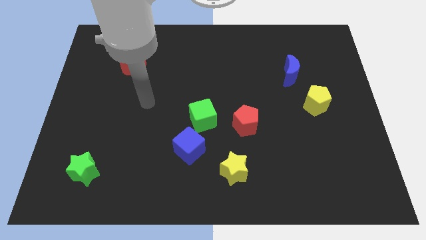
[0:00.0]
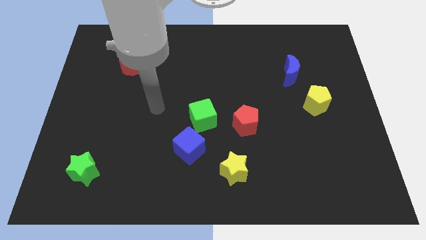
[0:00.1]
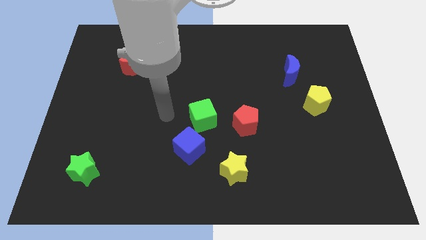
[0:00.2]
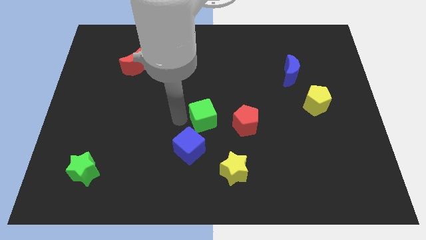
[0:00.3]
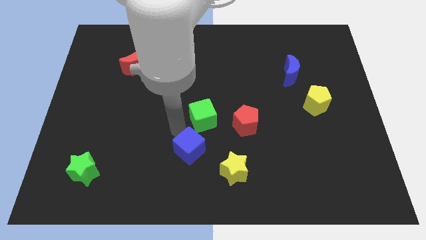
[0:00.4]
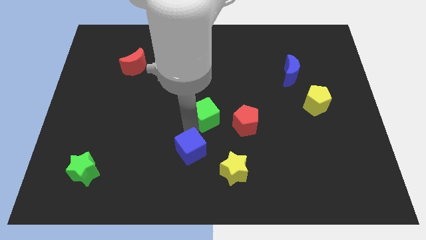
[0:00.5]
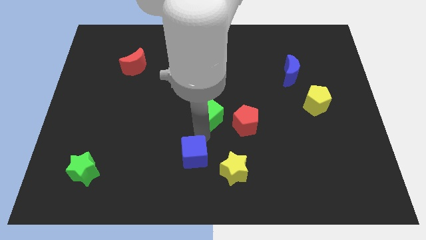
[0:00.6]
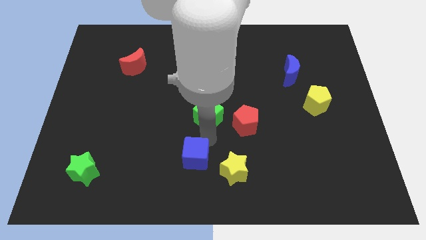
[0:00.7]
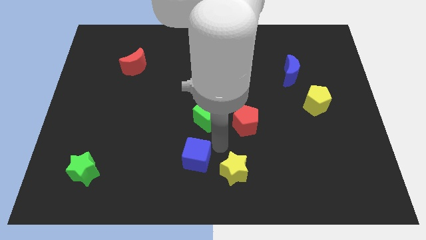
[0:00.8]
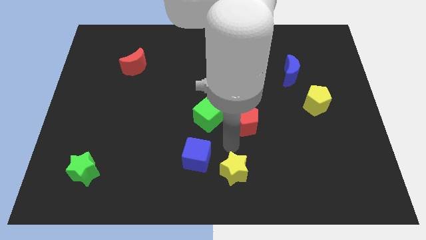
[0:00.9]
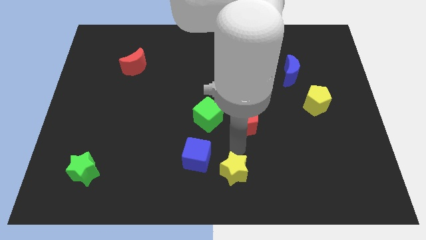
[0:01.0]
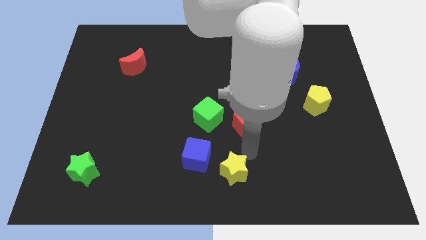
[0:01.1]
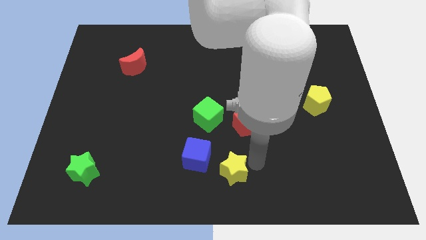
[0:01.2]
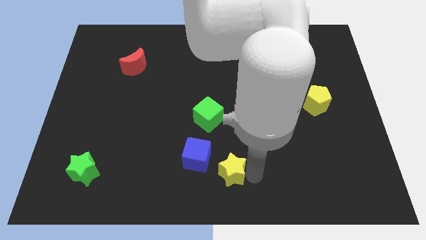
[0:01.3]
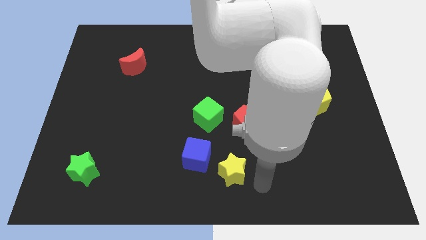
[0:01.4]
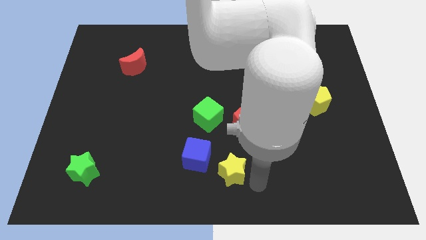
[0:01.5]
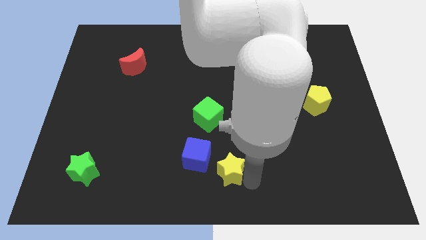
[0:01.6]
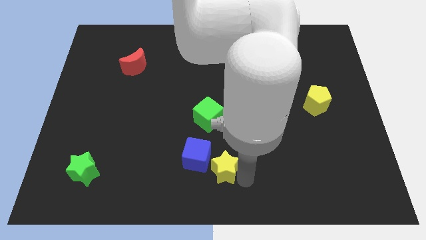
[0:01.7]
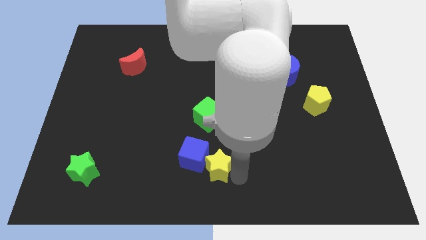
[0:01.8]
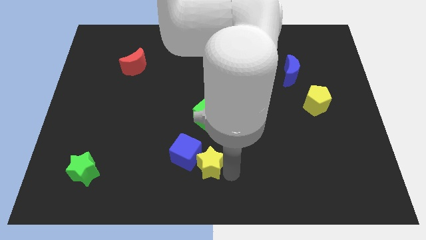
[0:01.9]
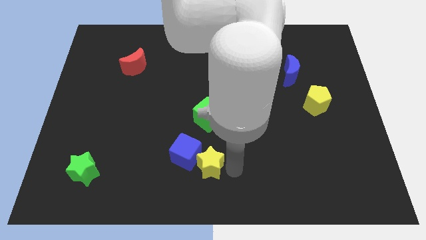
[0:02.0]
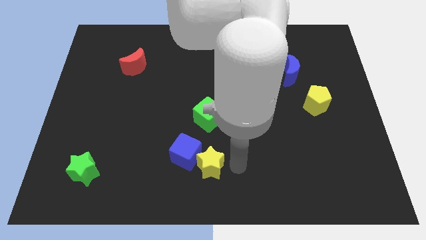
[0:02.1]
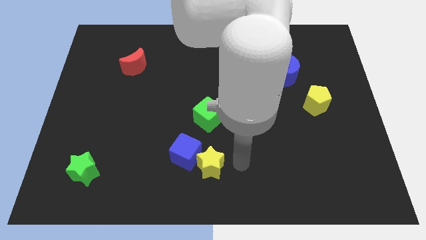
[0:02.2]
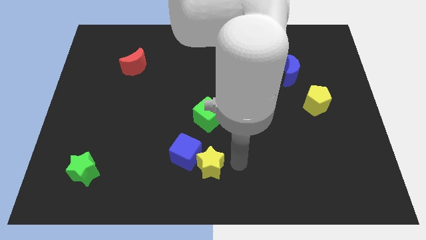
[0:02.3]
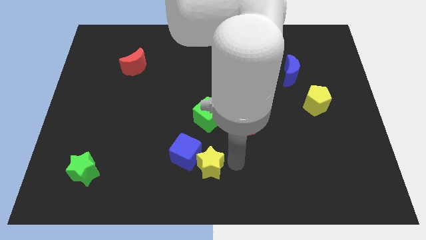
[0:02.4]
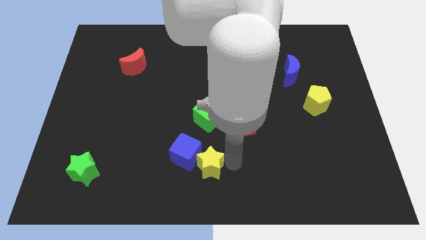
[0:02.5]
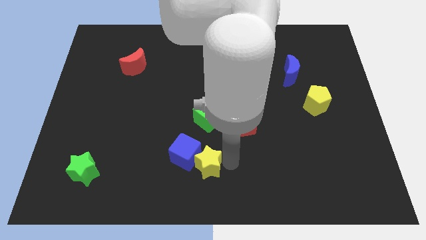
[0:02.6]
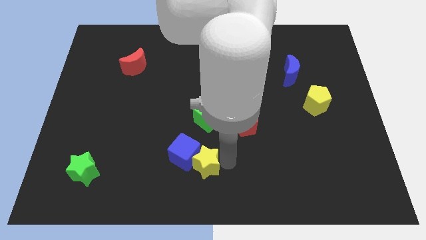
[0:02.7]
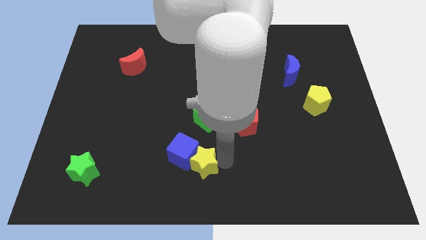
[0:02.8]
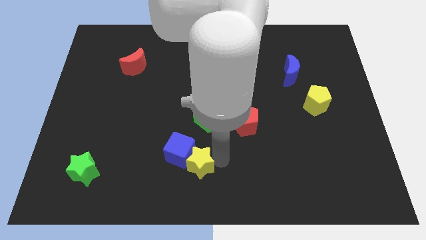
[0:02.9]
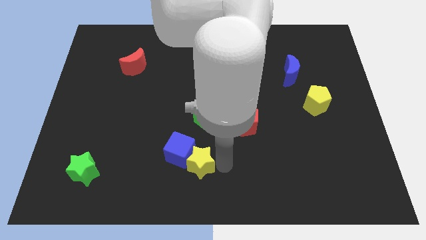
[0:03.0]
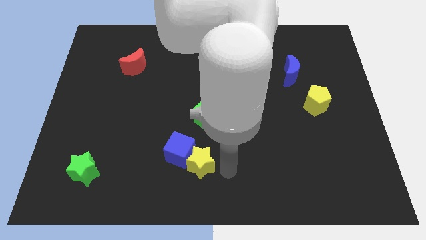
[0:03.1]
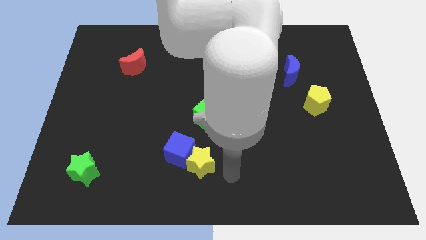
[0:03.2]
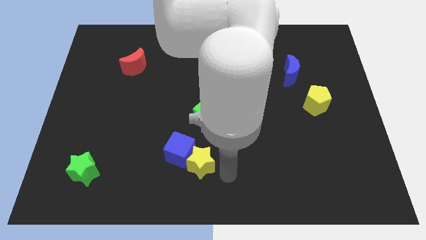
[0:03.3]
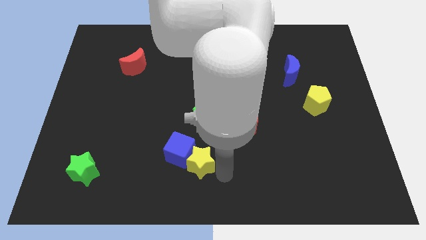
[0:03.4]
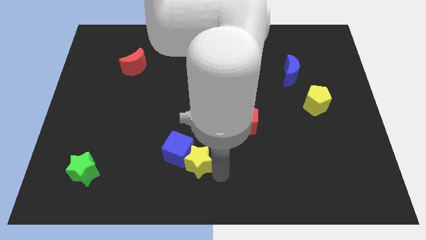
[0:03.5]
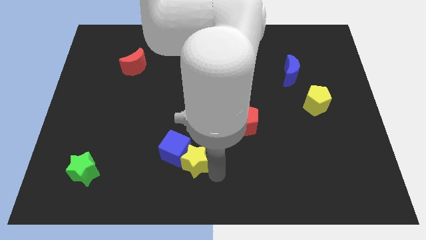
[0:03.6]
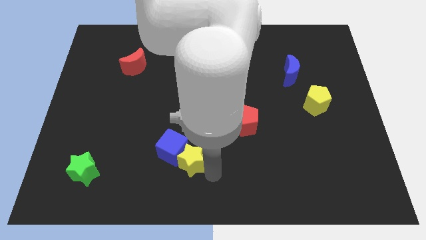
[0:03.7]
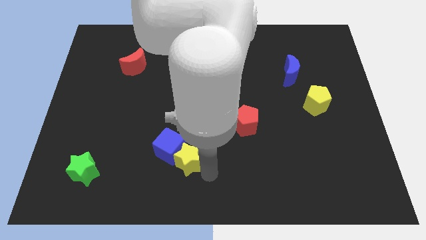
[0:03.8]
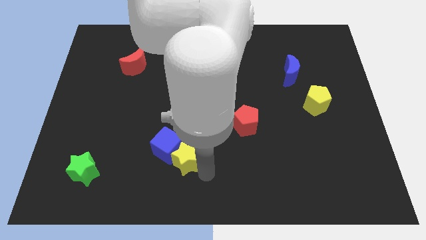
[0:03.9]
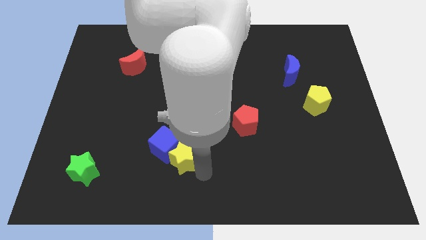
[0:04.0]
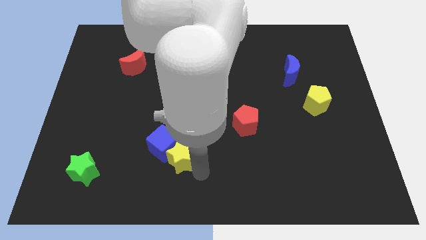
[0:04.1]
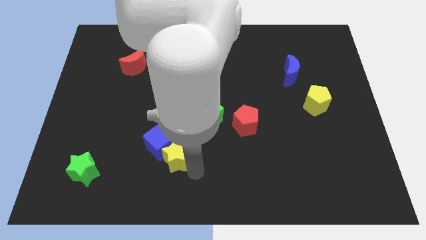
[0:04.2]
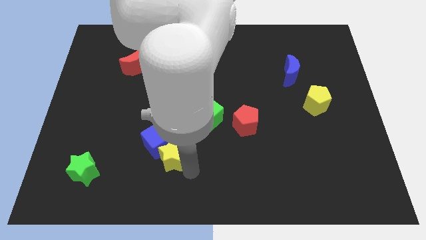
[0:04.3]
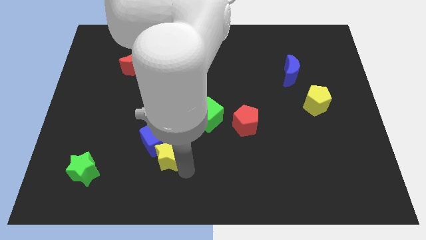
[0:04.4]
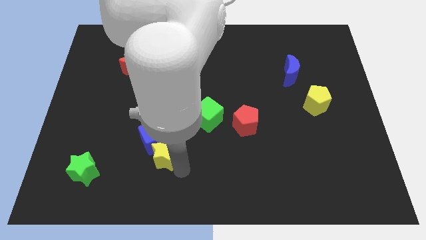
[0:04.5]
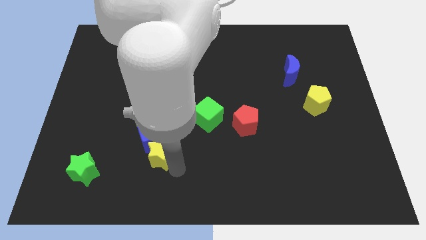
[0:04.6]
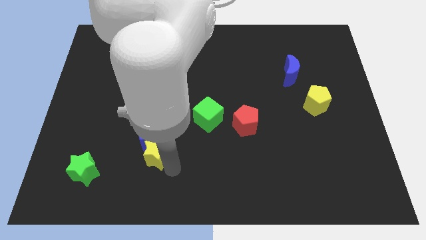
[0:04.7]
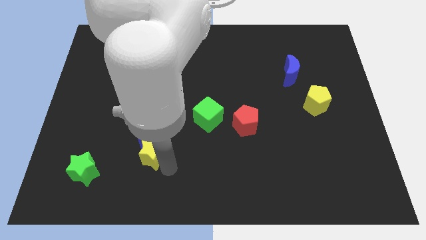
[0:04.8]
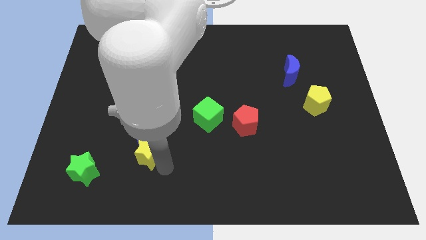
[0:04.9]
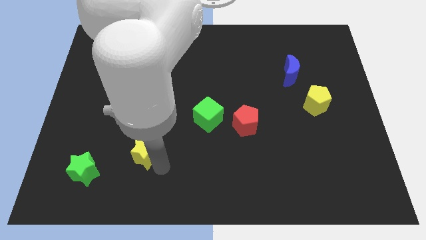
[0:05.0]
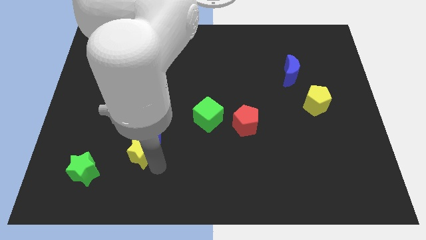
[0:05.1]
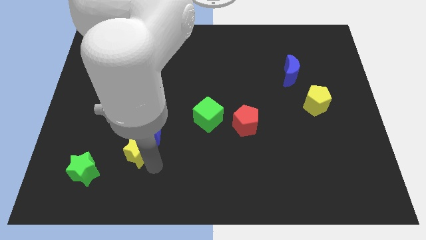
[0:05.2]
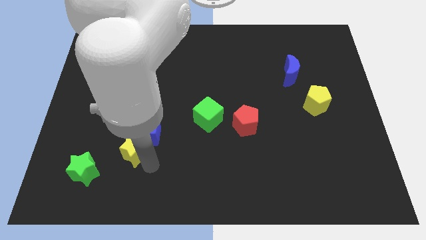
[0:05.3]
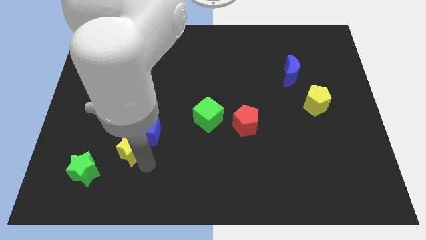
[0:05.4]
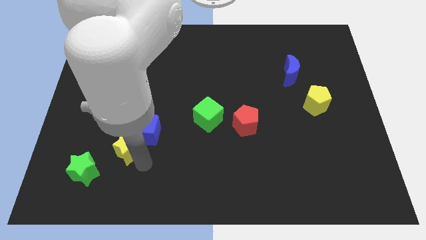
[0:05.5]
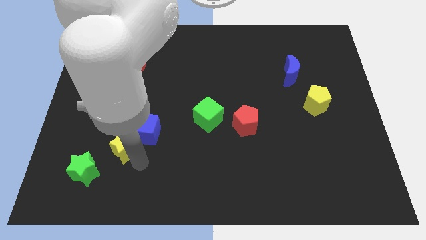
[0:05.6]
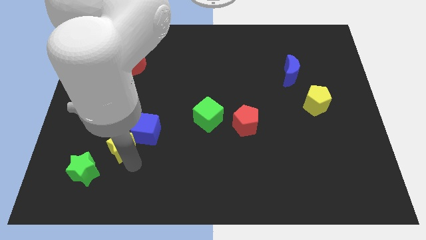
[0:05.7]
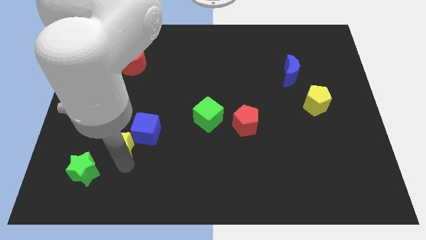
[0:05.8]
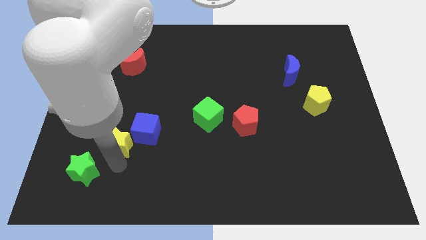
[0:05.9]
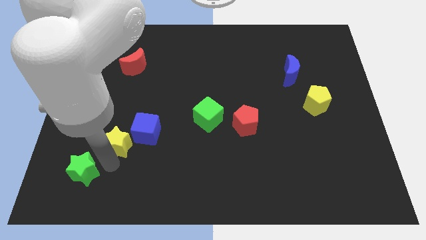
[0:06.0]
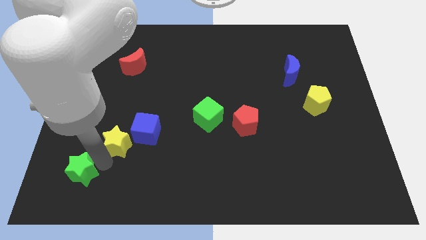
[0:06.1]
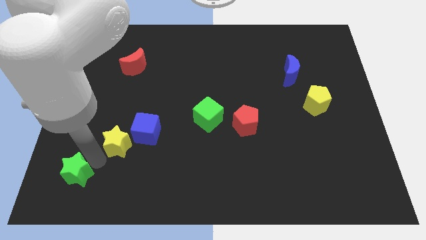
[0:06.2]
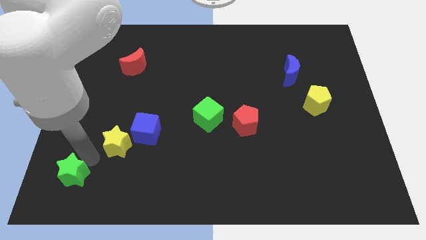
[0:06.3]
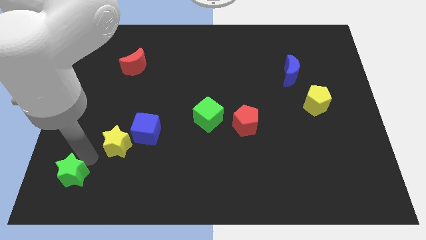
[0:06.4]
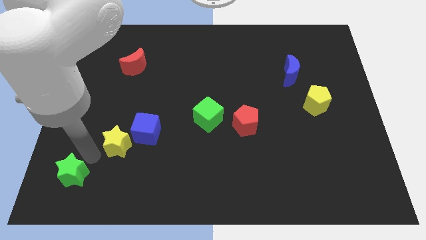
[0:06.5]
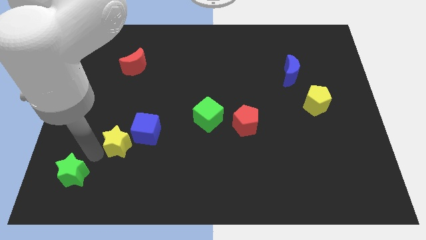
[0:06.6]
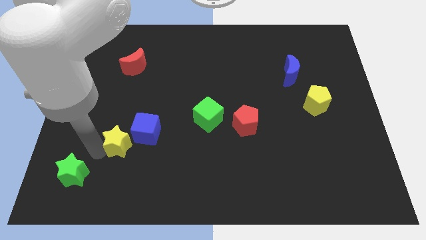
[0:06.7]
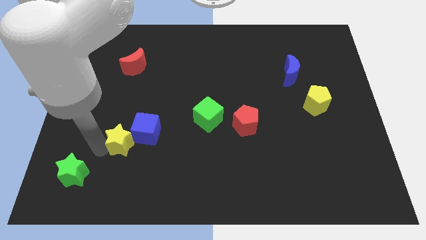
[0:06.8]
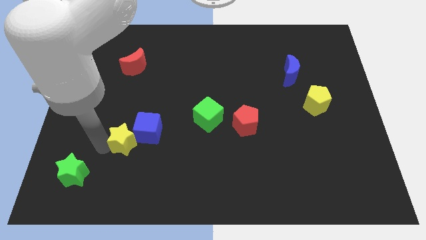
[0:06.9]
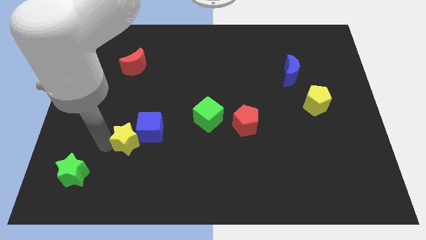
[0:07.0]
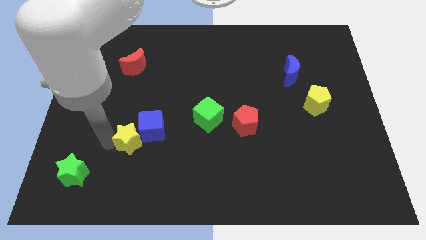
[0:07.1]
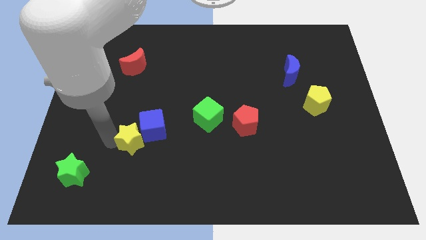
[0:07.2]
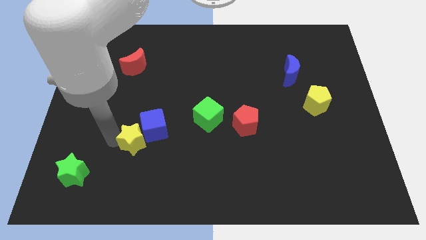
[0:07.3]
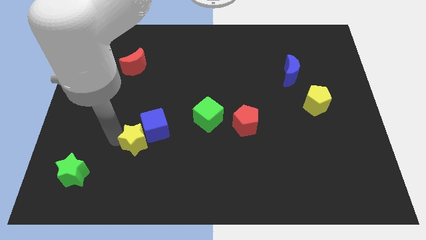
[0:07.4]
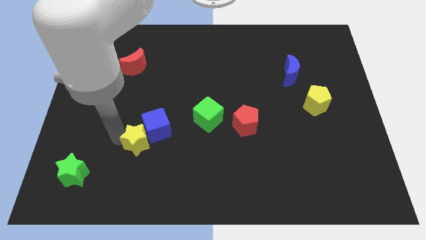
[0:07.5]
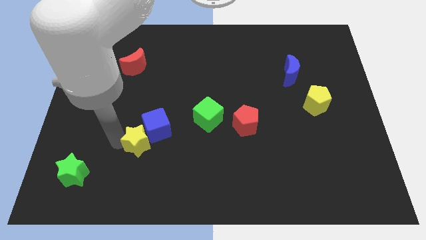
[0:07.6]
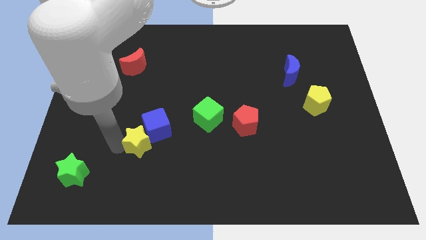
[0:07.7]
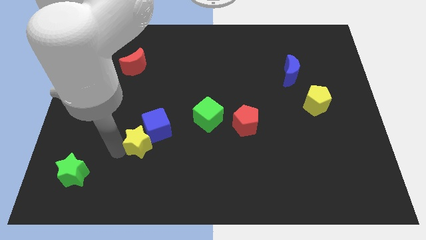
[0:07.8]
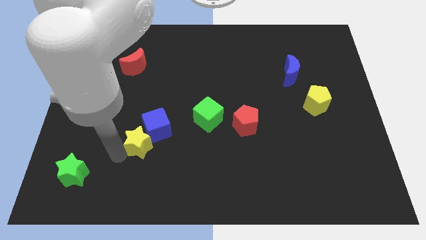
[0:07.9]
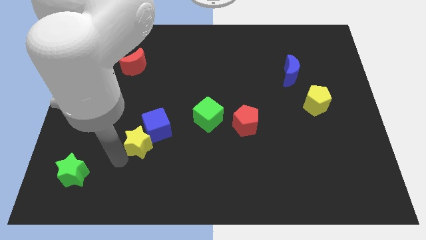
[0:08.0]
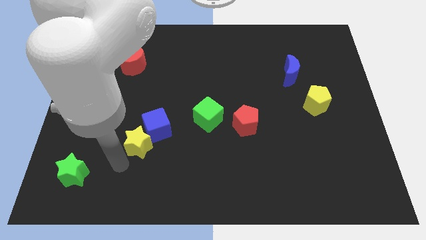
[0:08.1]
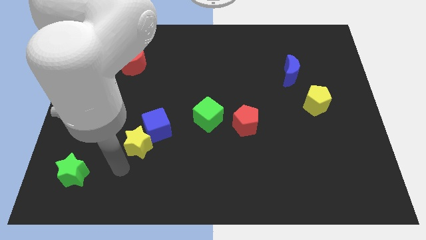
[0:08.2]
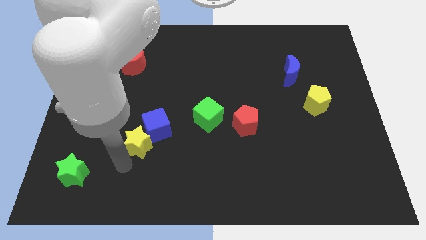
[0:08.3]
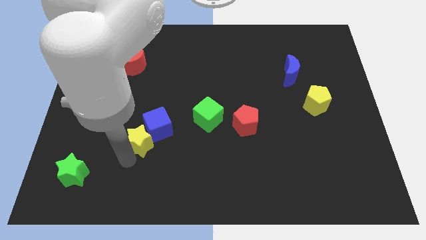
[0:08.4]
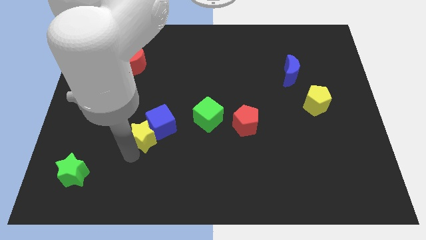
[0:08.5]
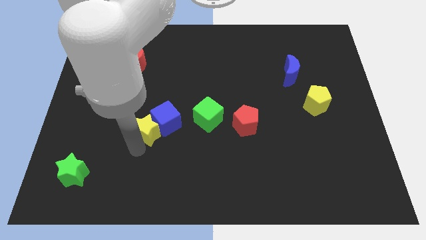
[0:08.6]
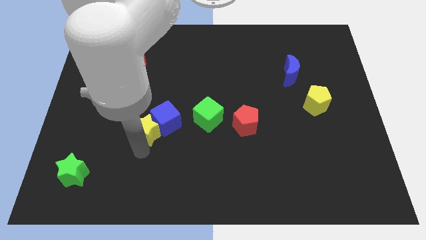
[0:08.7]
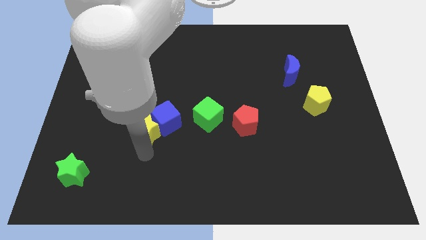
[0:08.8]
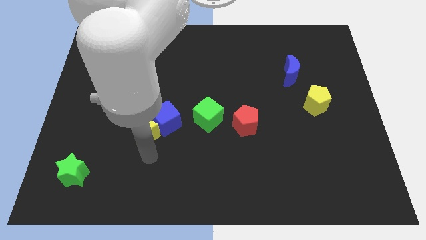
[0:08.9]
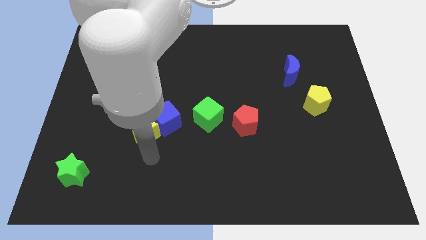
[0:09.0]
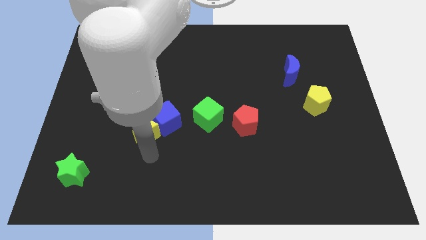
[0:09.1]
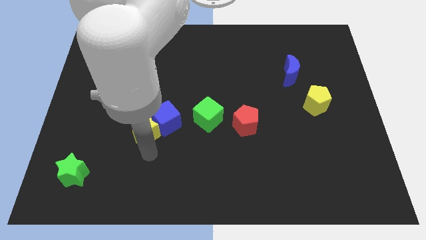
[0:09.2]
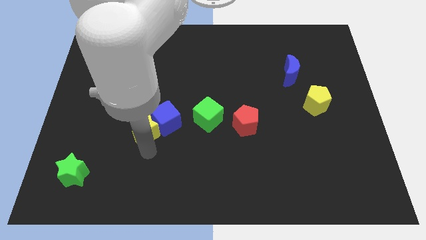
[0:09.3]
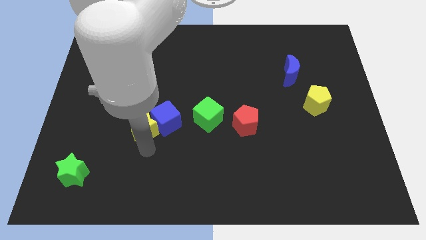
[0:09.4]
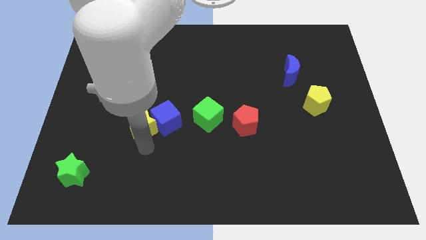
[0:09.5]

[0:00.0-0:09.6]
slide the yellow star up and to the left diagonally
